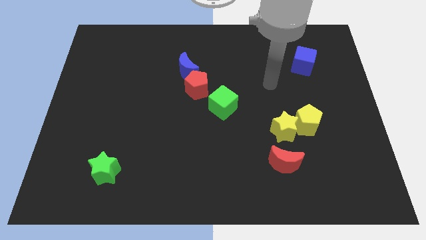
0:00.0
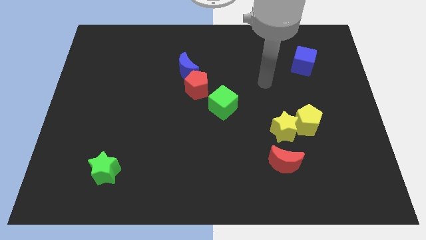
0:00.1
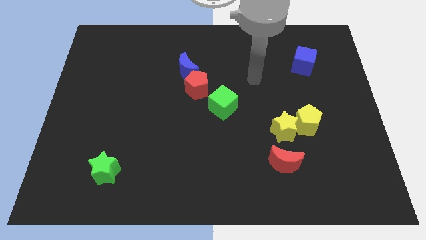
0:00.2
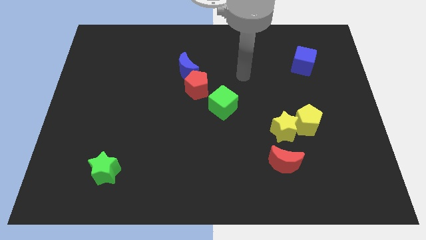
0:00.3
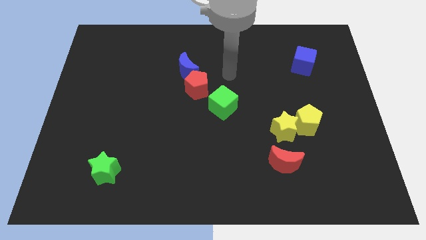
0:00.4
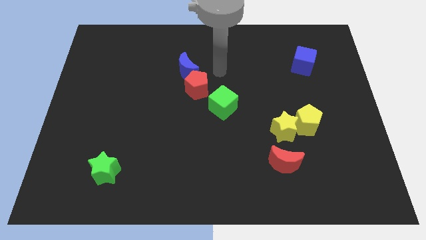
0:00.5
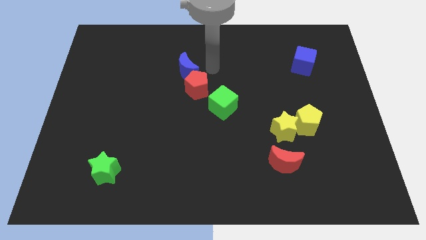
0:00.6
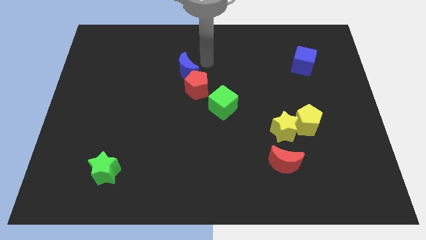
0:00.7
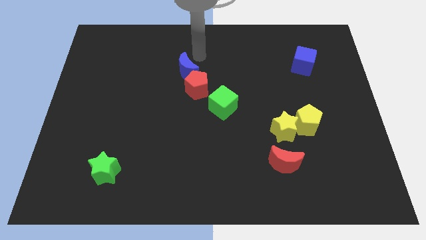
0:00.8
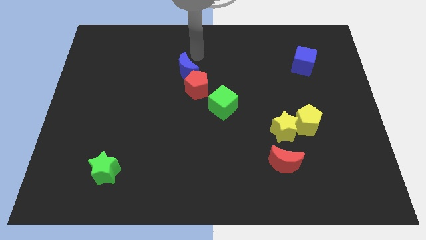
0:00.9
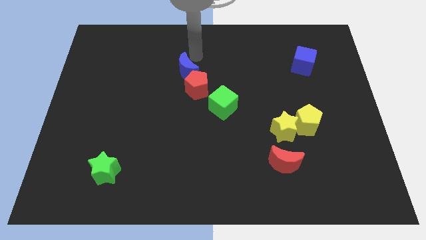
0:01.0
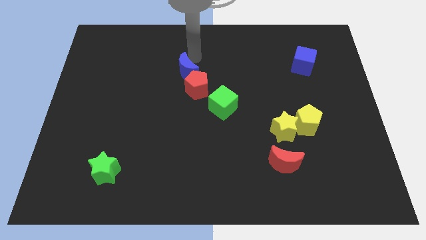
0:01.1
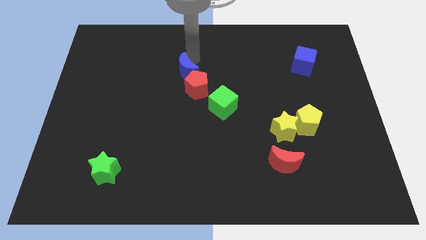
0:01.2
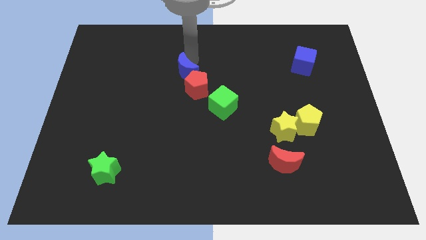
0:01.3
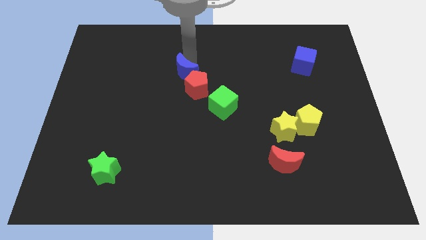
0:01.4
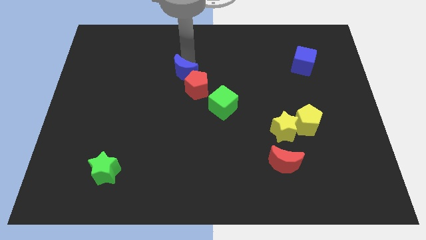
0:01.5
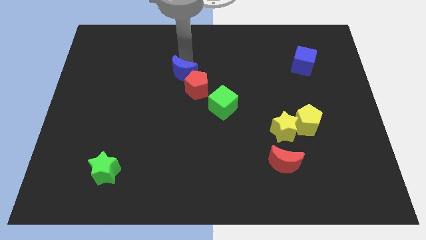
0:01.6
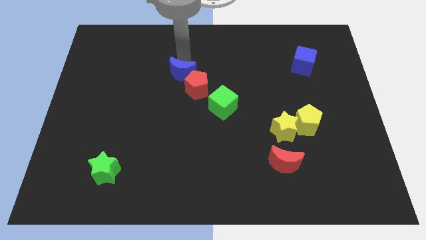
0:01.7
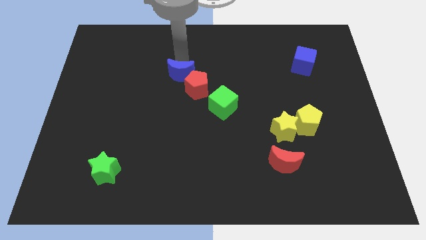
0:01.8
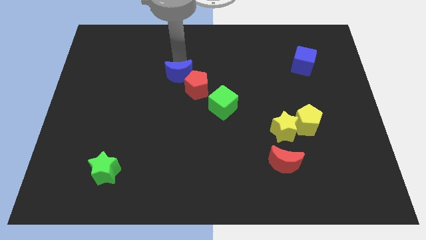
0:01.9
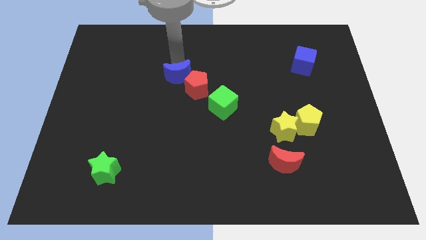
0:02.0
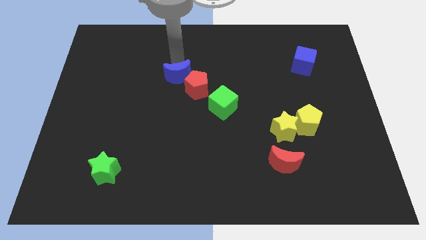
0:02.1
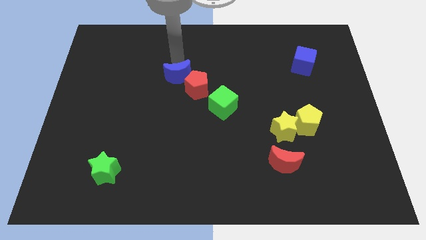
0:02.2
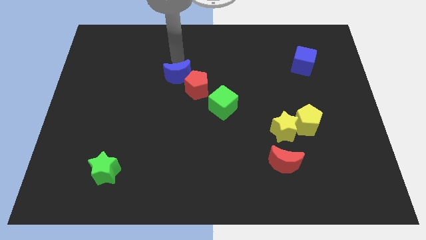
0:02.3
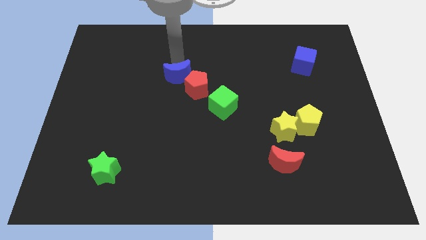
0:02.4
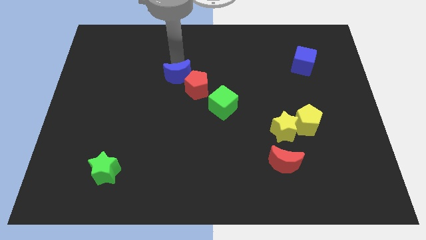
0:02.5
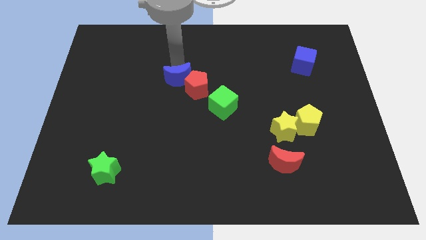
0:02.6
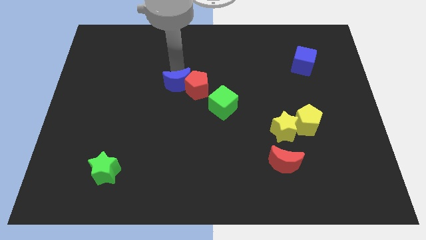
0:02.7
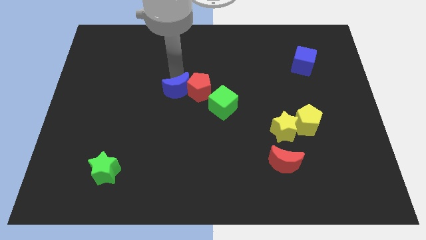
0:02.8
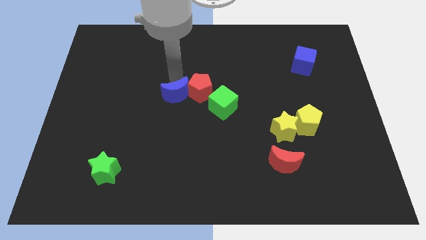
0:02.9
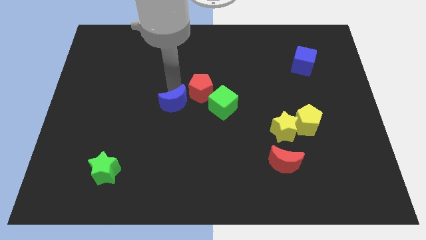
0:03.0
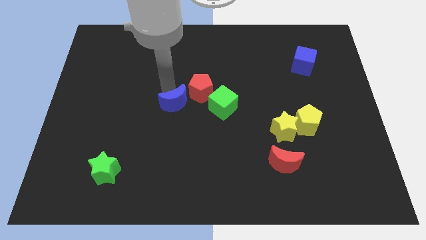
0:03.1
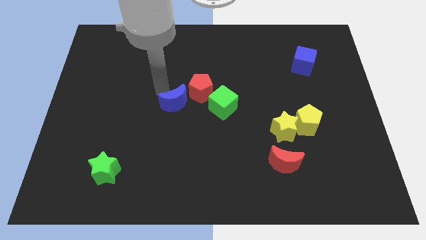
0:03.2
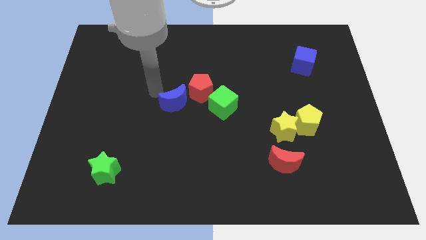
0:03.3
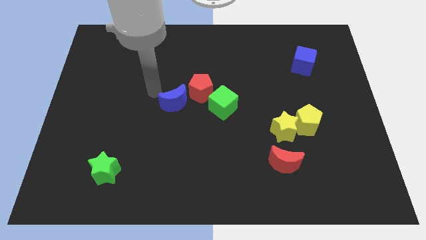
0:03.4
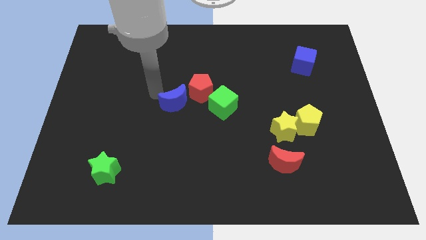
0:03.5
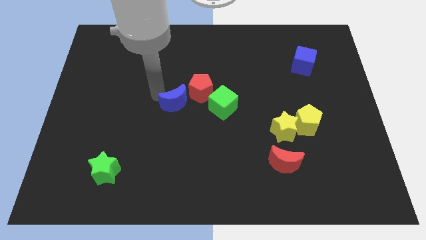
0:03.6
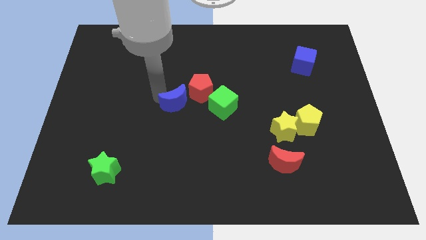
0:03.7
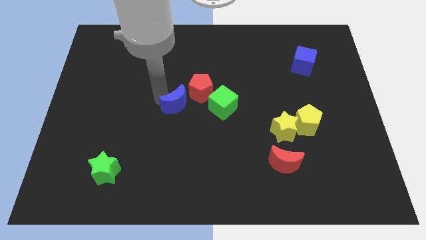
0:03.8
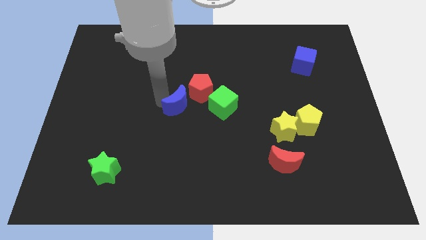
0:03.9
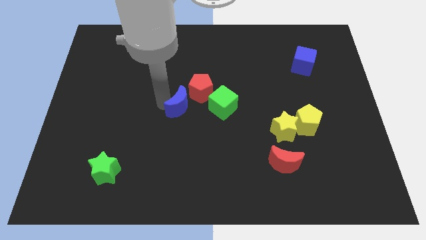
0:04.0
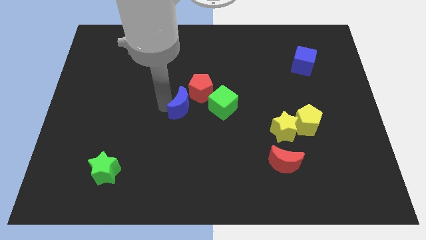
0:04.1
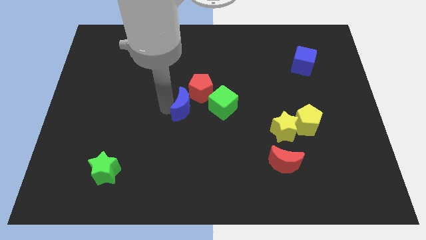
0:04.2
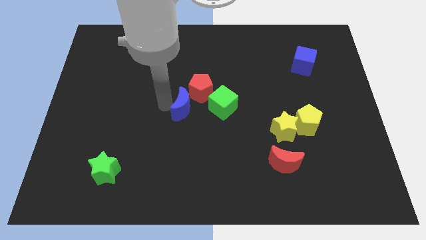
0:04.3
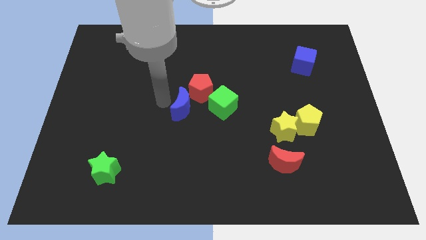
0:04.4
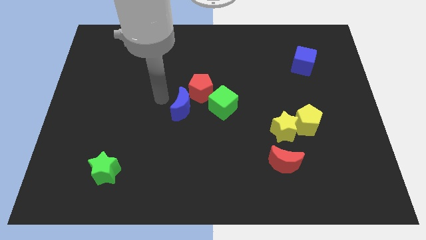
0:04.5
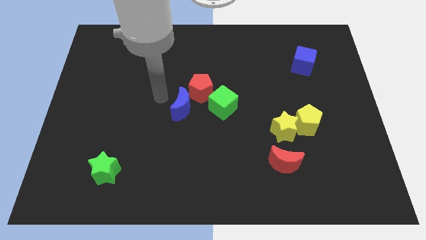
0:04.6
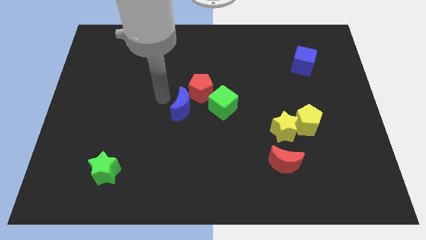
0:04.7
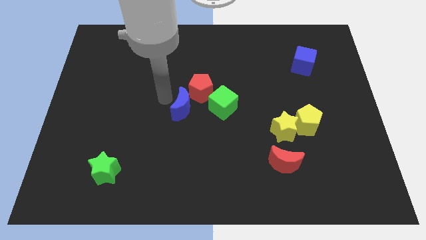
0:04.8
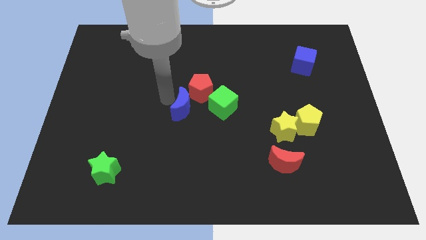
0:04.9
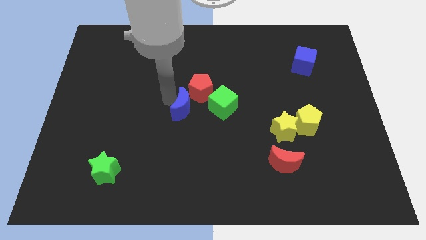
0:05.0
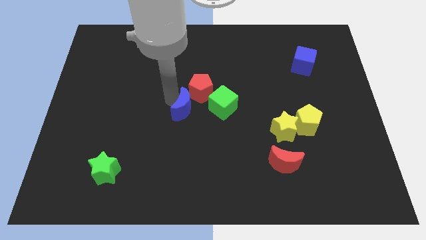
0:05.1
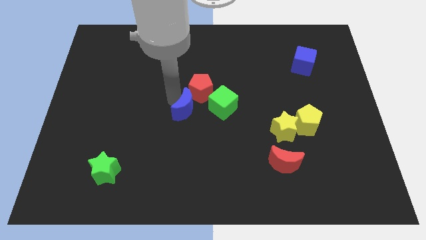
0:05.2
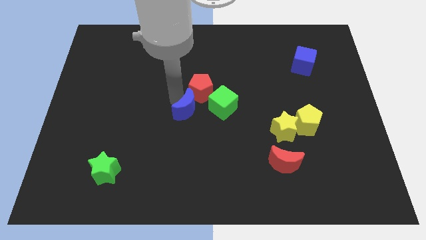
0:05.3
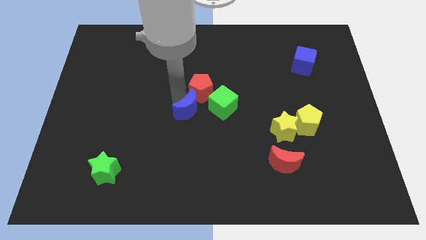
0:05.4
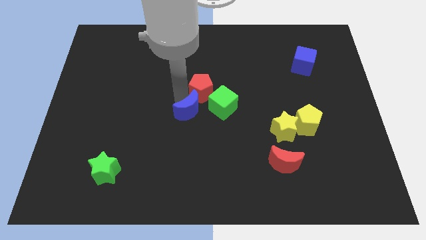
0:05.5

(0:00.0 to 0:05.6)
move the blue moon down and to the right somewhat

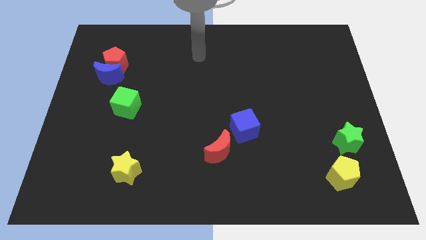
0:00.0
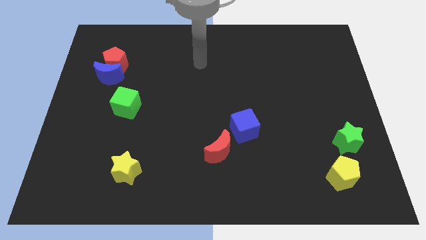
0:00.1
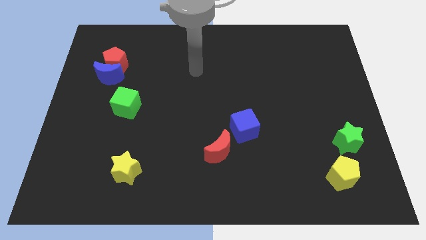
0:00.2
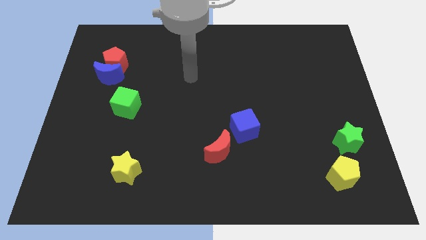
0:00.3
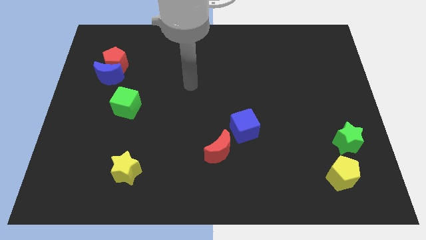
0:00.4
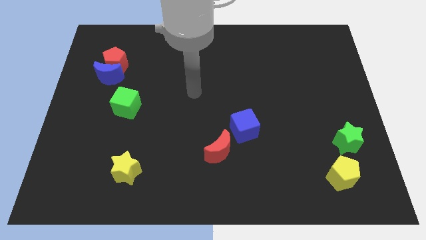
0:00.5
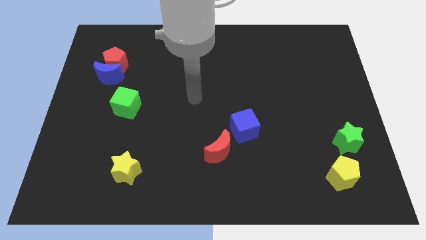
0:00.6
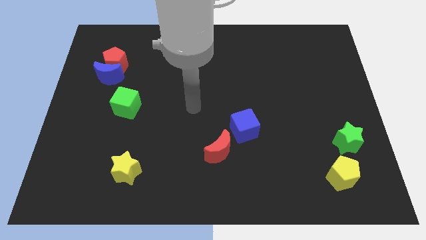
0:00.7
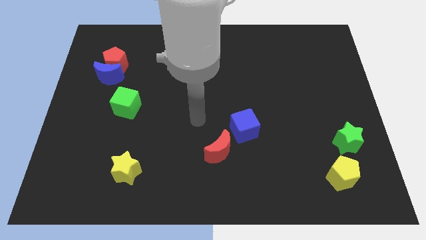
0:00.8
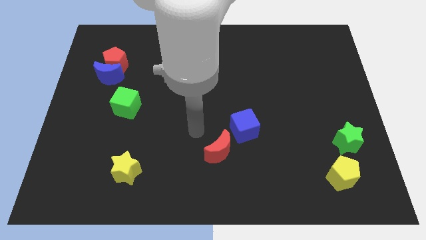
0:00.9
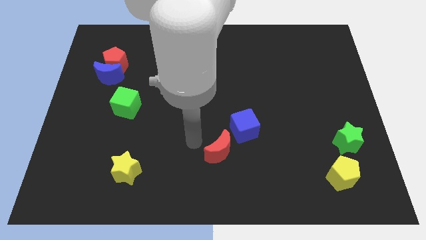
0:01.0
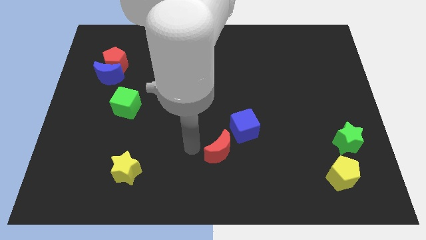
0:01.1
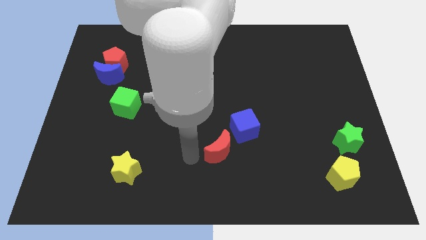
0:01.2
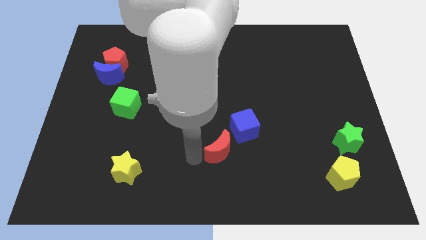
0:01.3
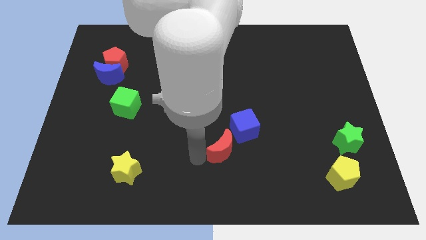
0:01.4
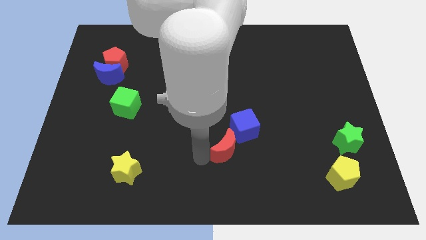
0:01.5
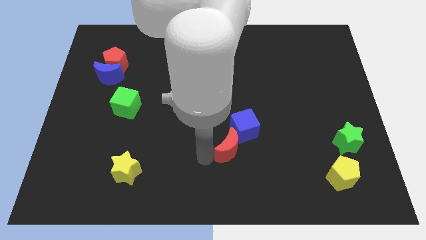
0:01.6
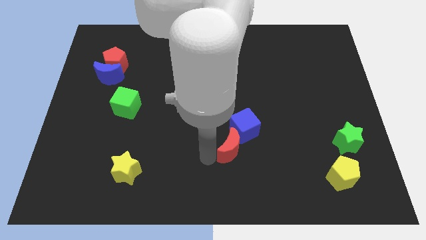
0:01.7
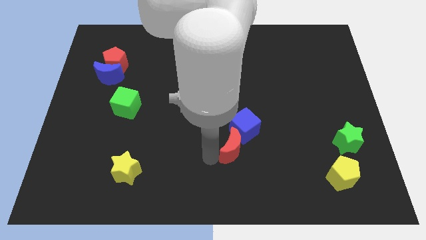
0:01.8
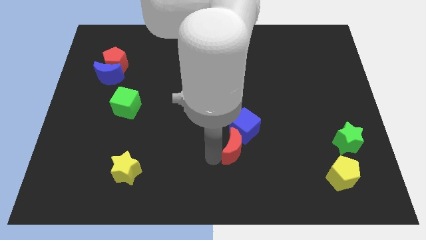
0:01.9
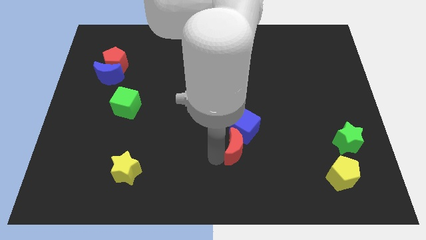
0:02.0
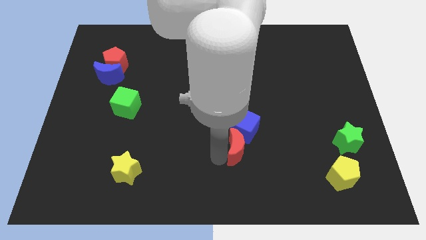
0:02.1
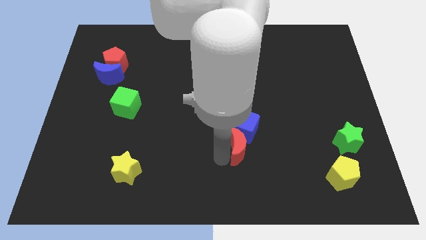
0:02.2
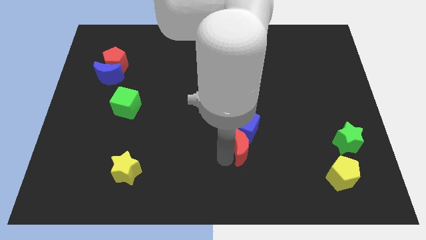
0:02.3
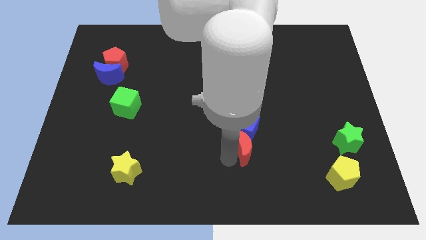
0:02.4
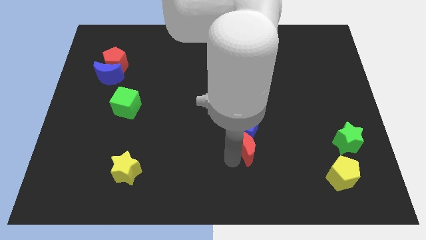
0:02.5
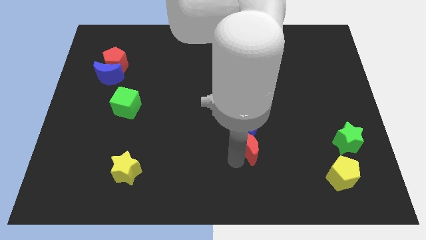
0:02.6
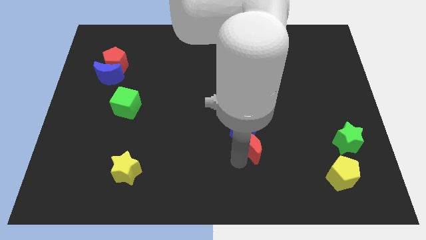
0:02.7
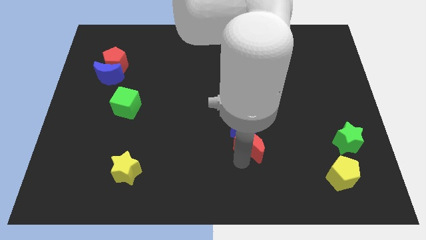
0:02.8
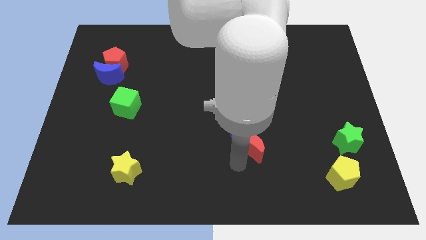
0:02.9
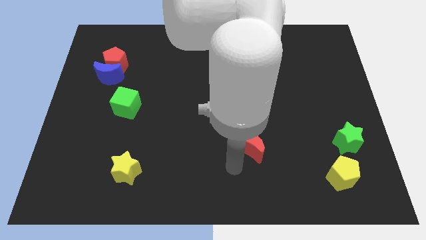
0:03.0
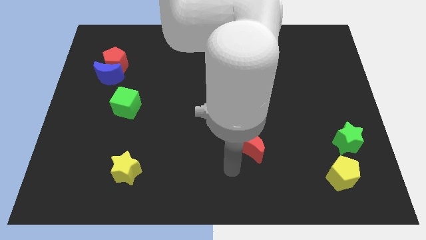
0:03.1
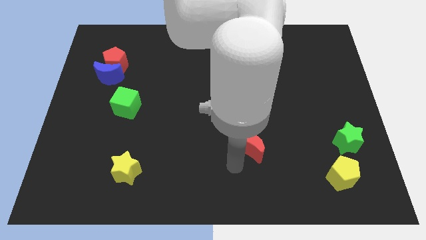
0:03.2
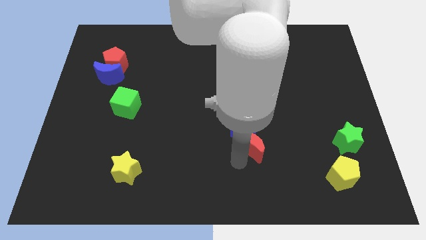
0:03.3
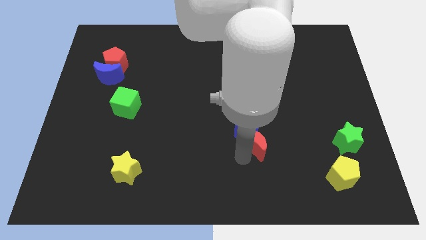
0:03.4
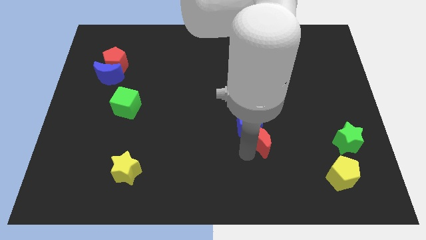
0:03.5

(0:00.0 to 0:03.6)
slightly push the red moon diagonally up and to the right
